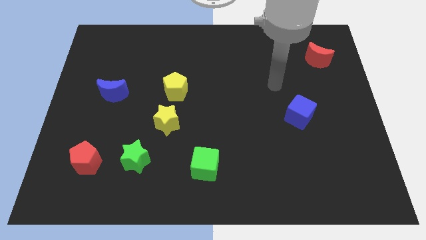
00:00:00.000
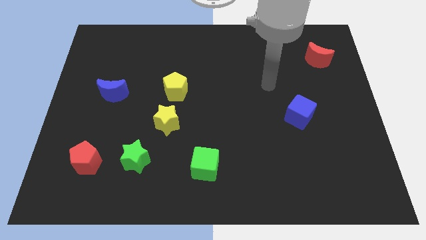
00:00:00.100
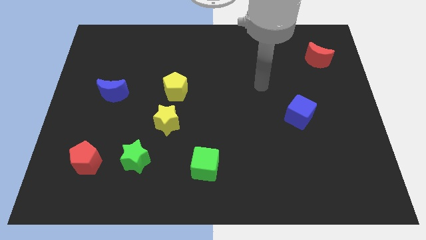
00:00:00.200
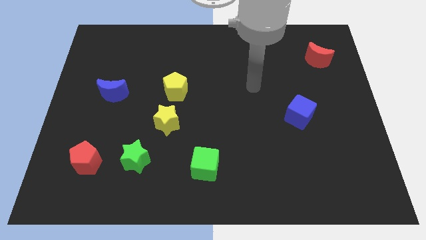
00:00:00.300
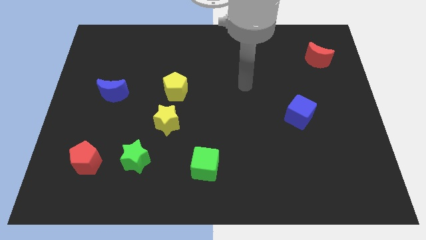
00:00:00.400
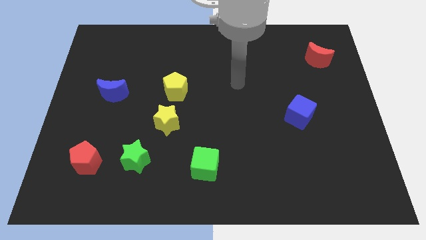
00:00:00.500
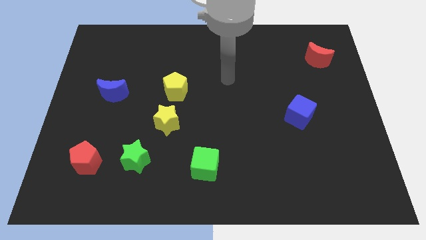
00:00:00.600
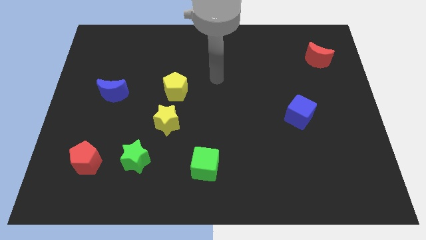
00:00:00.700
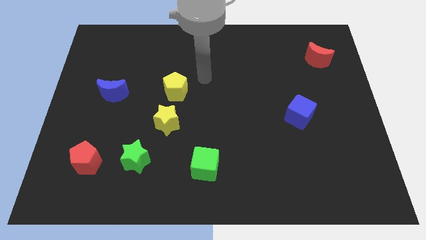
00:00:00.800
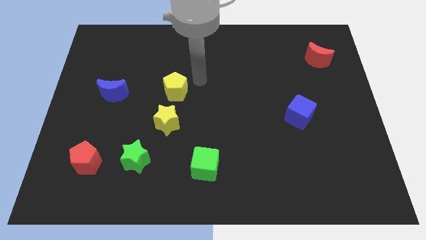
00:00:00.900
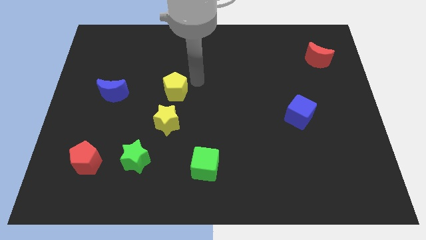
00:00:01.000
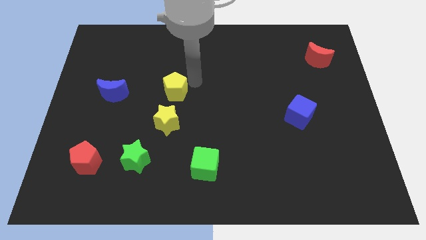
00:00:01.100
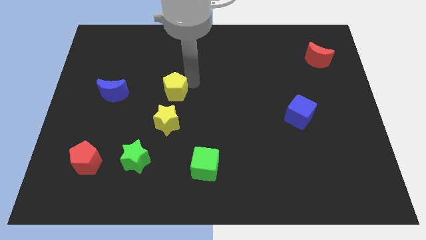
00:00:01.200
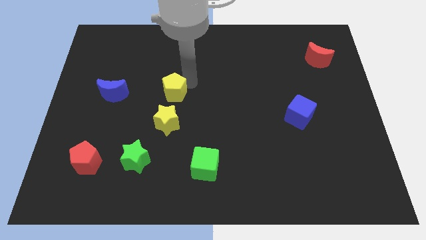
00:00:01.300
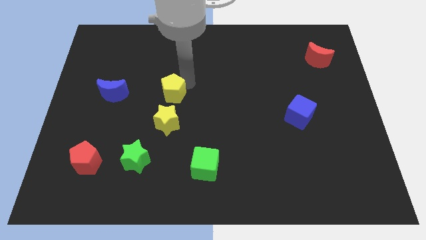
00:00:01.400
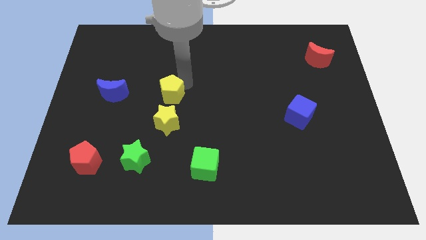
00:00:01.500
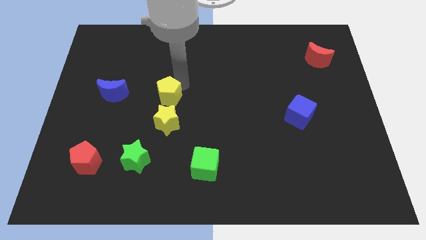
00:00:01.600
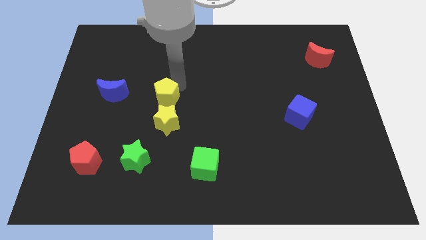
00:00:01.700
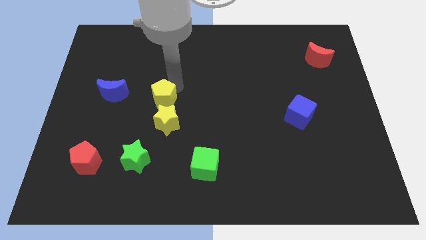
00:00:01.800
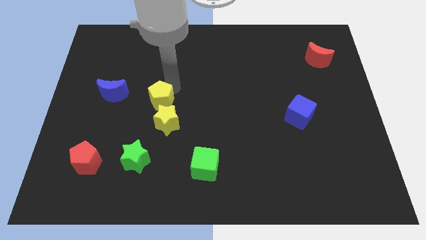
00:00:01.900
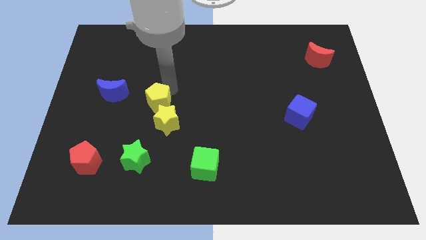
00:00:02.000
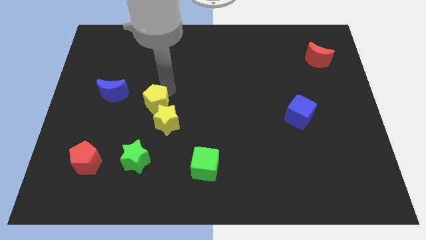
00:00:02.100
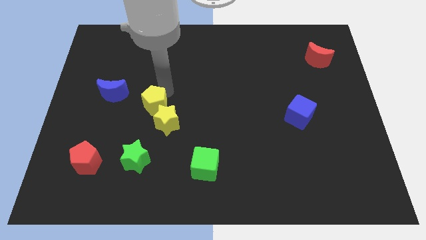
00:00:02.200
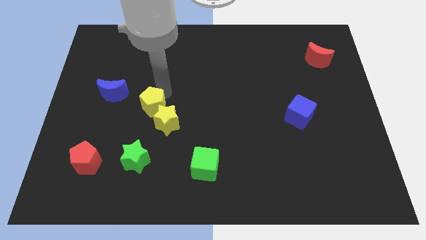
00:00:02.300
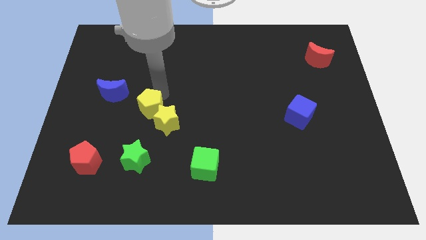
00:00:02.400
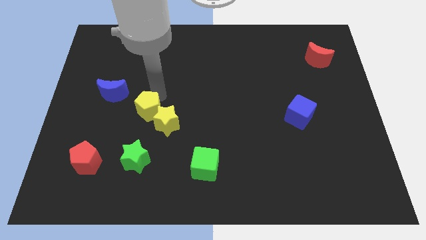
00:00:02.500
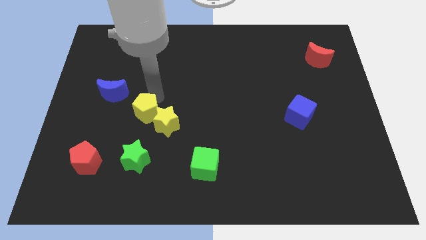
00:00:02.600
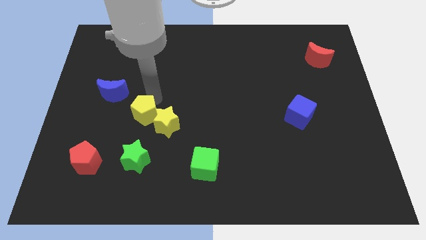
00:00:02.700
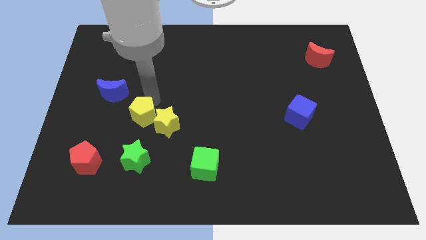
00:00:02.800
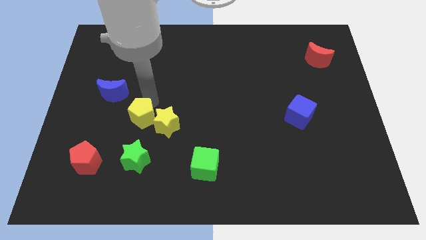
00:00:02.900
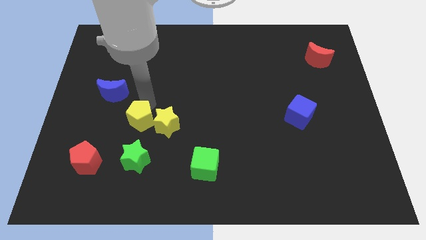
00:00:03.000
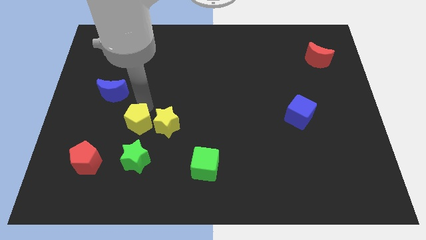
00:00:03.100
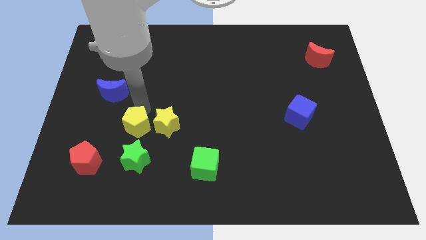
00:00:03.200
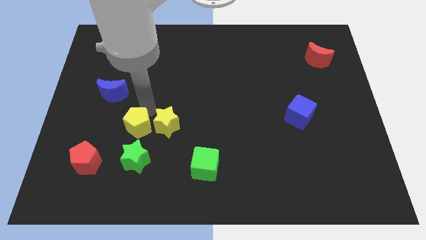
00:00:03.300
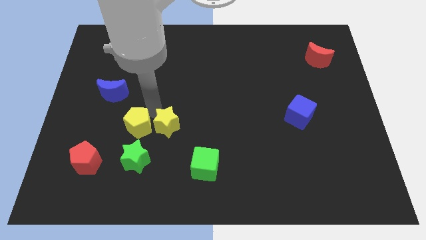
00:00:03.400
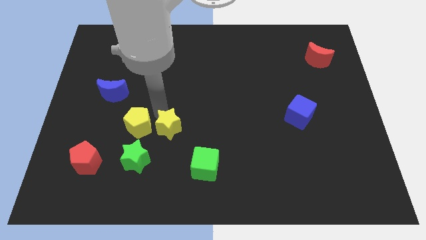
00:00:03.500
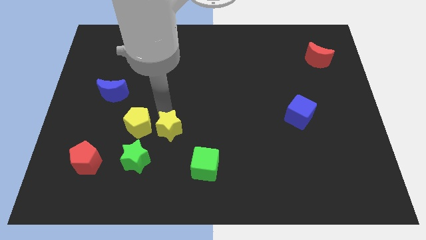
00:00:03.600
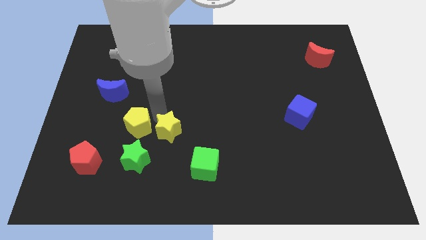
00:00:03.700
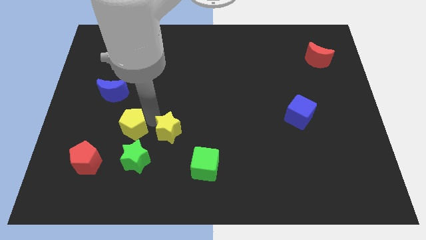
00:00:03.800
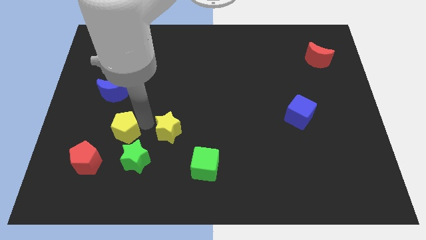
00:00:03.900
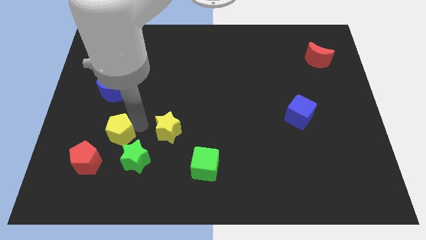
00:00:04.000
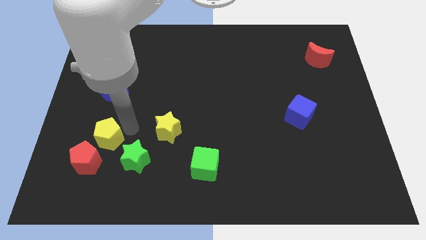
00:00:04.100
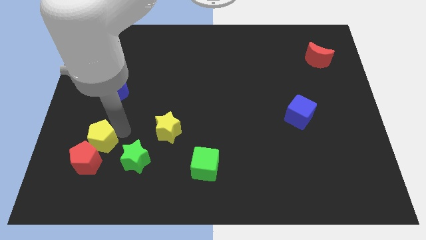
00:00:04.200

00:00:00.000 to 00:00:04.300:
move the yellow pentagon next to the red pentagon

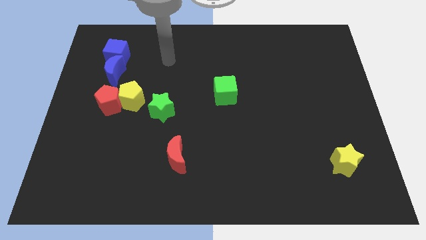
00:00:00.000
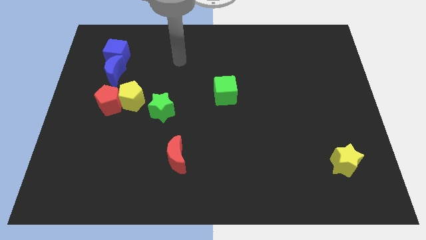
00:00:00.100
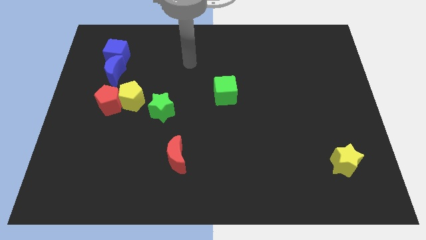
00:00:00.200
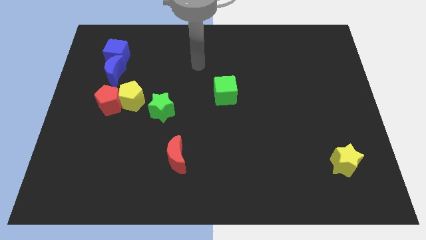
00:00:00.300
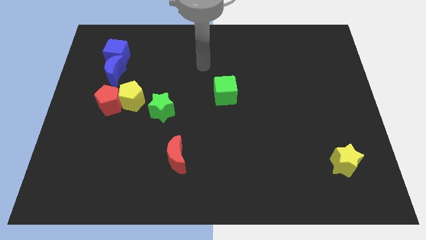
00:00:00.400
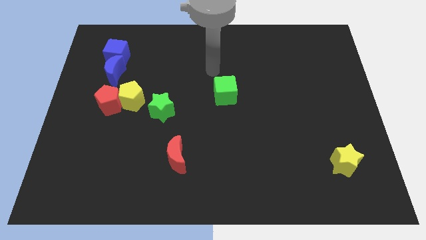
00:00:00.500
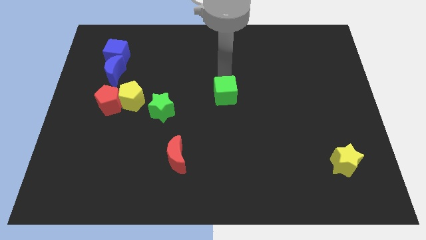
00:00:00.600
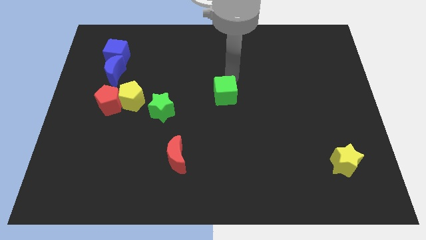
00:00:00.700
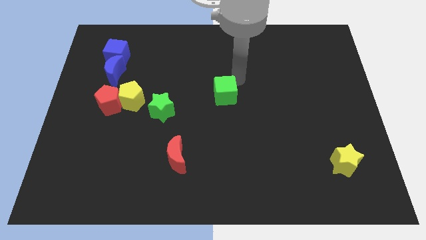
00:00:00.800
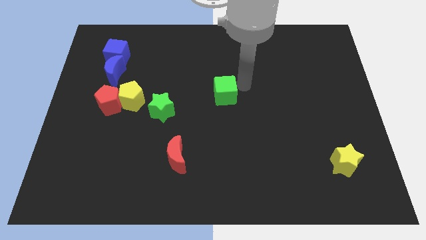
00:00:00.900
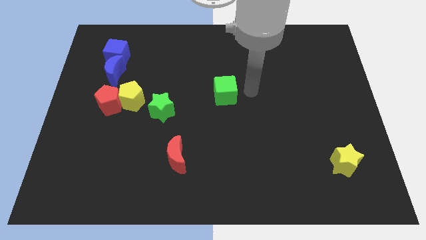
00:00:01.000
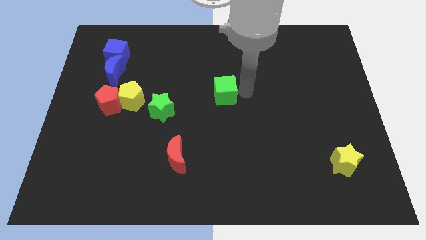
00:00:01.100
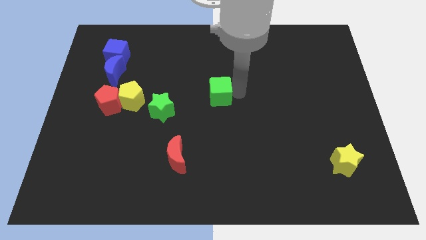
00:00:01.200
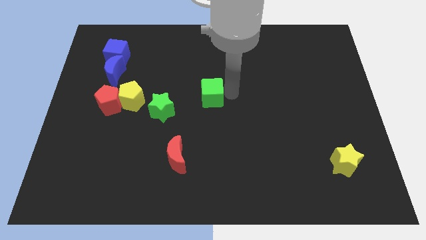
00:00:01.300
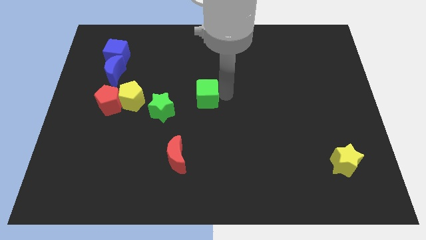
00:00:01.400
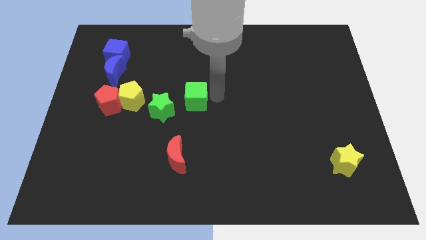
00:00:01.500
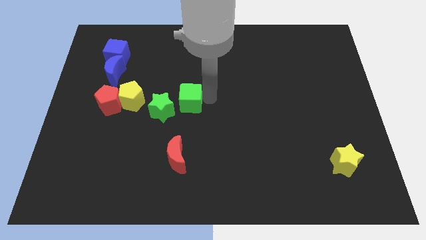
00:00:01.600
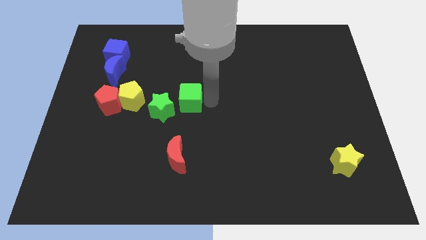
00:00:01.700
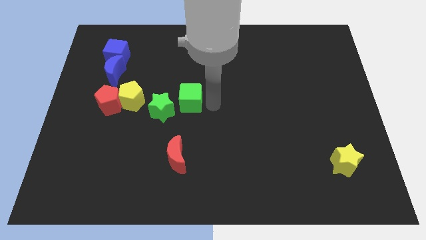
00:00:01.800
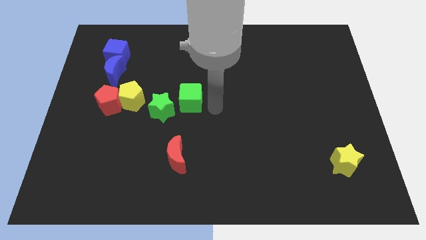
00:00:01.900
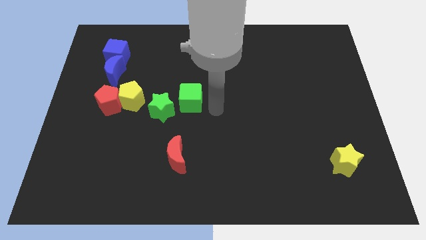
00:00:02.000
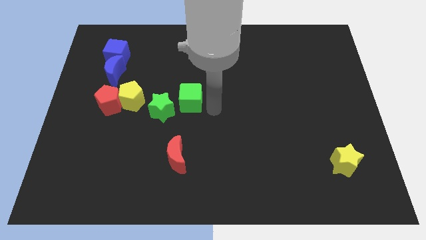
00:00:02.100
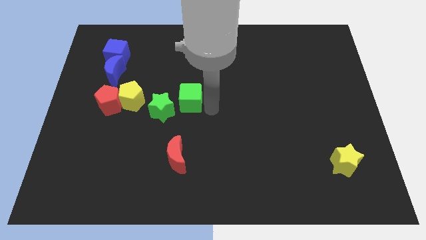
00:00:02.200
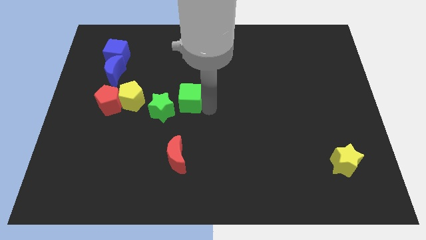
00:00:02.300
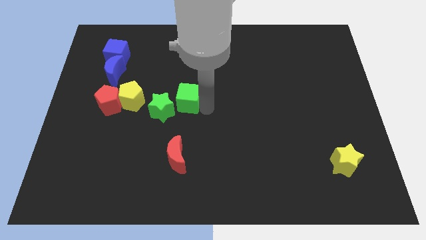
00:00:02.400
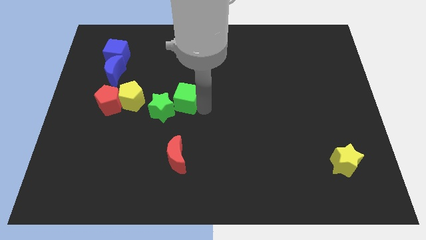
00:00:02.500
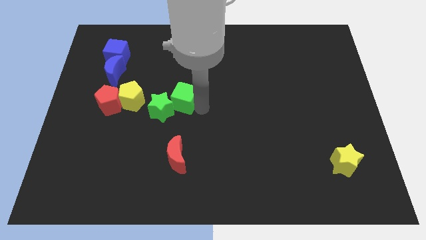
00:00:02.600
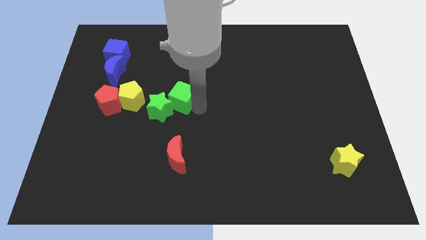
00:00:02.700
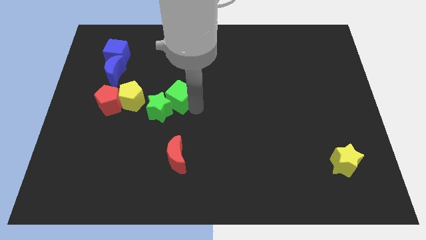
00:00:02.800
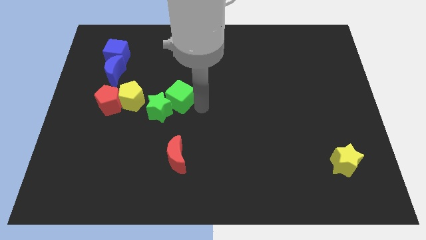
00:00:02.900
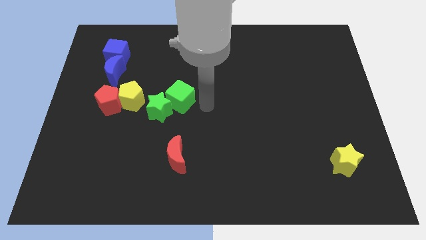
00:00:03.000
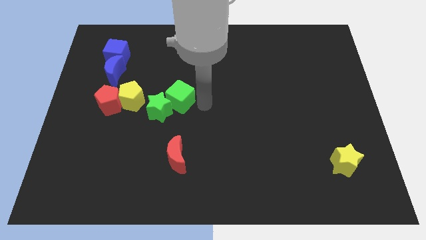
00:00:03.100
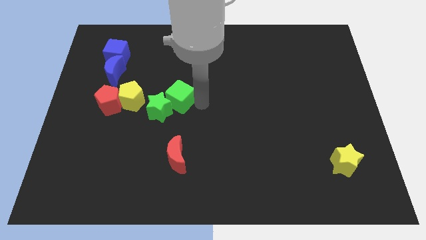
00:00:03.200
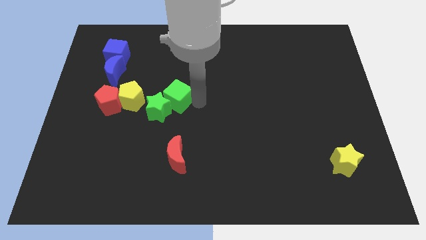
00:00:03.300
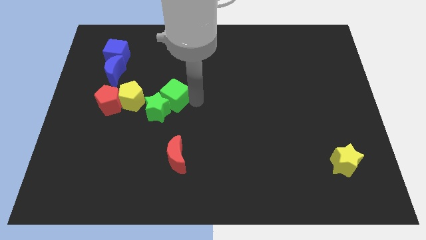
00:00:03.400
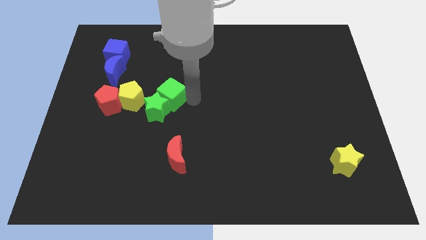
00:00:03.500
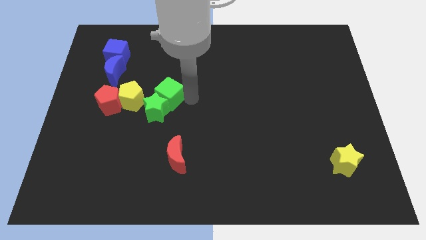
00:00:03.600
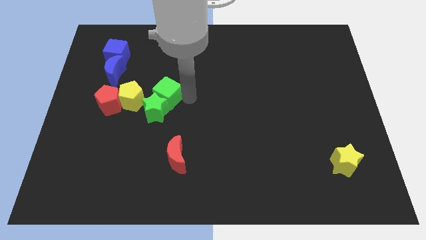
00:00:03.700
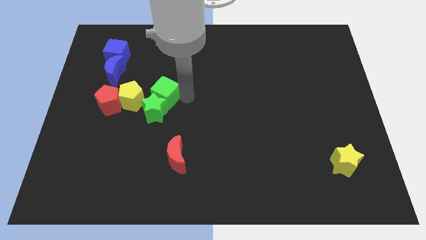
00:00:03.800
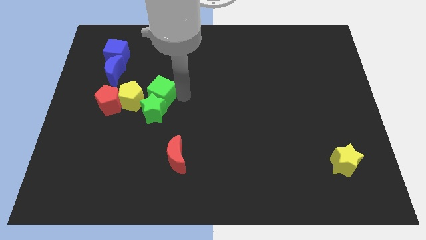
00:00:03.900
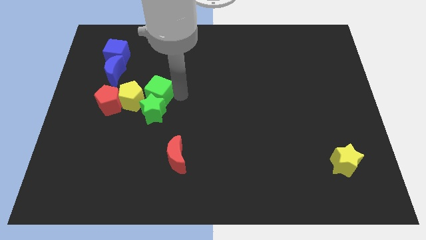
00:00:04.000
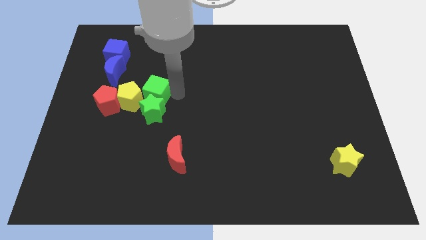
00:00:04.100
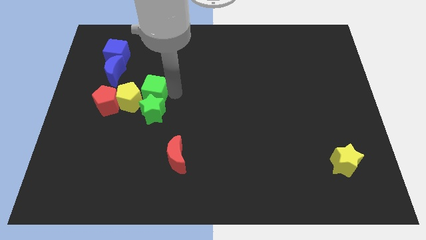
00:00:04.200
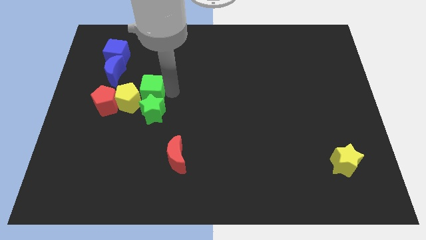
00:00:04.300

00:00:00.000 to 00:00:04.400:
move the green cube next to the yellow pentagon
